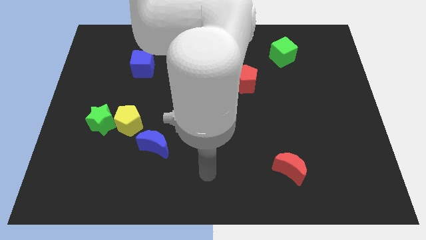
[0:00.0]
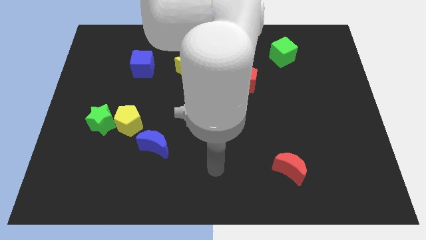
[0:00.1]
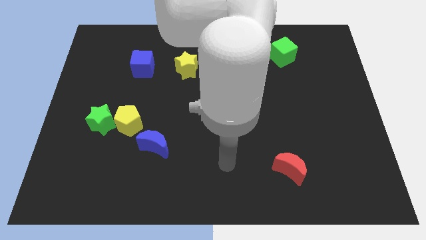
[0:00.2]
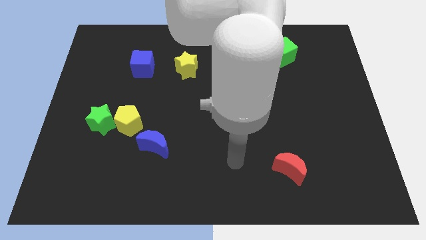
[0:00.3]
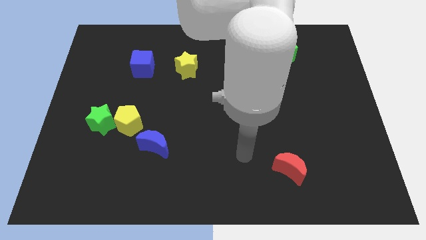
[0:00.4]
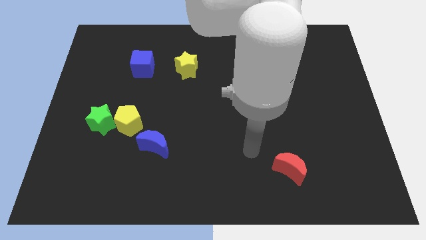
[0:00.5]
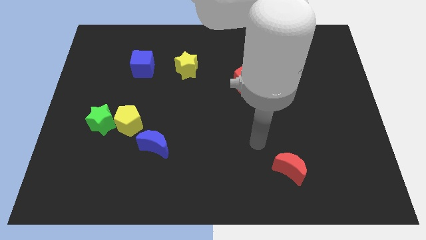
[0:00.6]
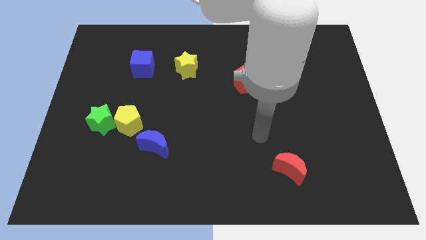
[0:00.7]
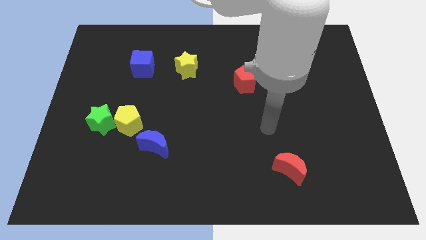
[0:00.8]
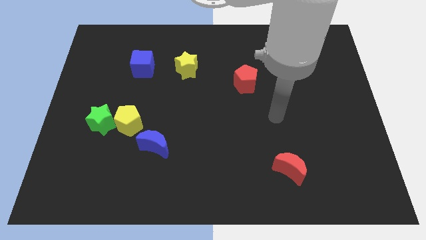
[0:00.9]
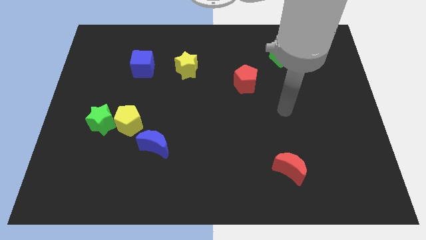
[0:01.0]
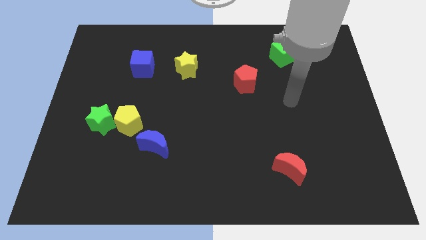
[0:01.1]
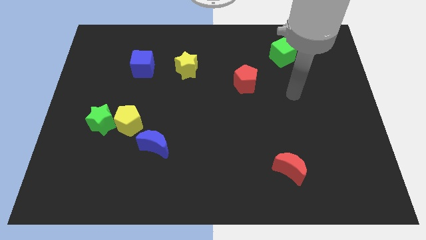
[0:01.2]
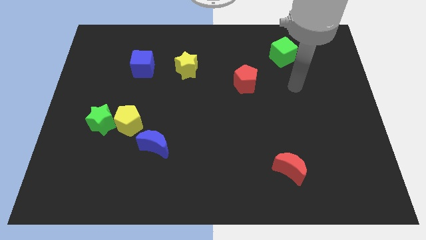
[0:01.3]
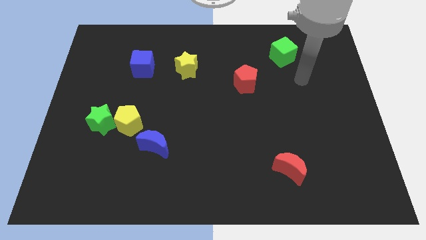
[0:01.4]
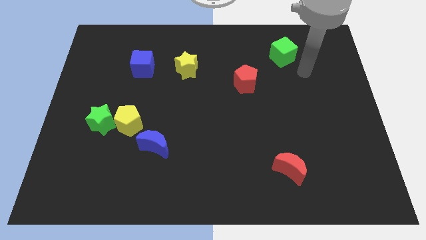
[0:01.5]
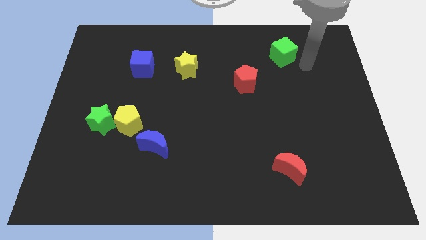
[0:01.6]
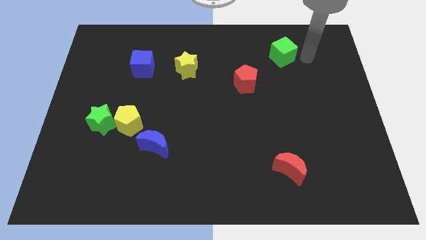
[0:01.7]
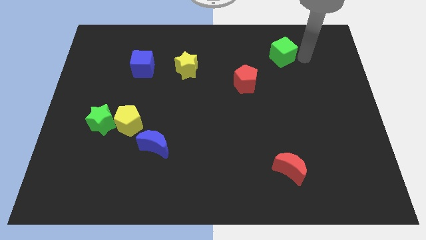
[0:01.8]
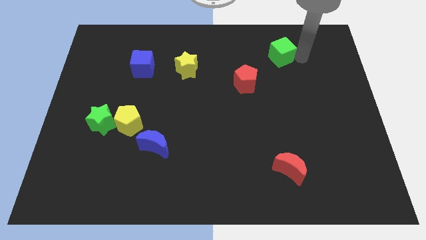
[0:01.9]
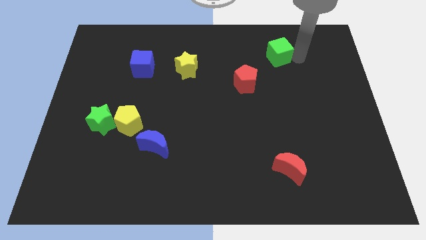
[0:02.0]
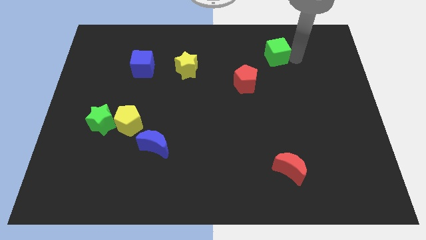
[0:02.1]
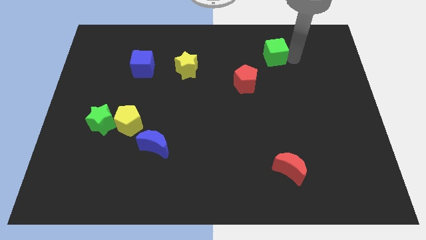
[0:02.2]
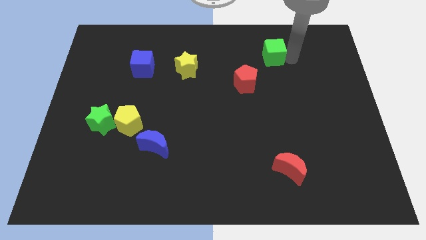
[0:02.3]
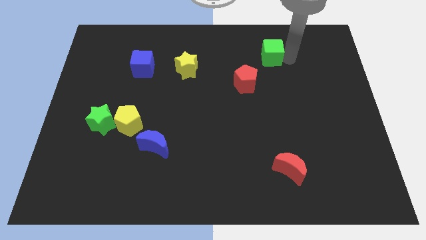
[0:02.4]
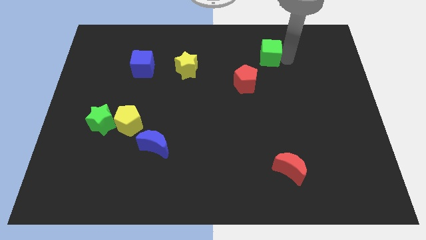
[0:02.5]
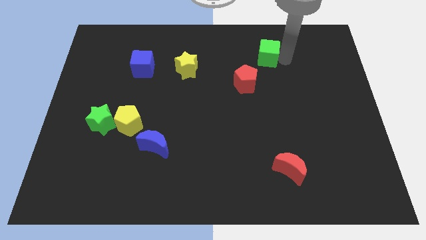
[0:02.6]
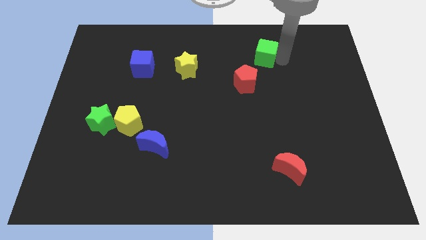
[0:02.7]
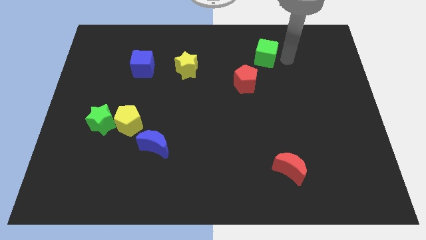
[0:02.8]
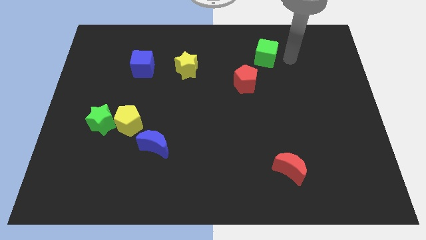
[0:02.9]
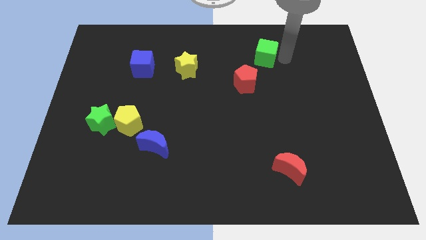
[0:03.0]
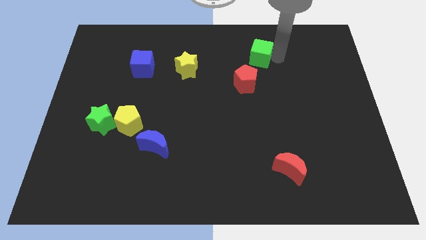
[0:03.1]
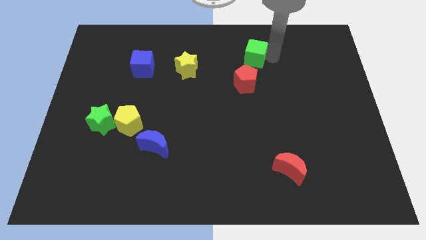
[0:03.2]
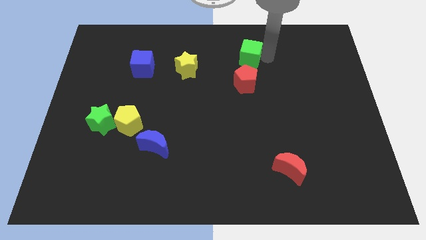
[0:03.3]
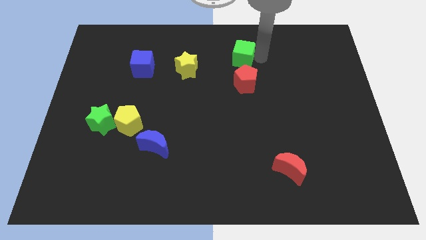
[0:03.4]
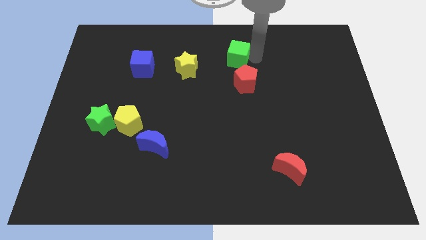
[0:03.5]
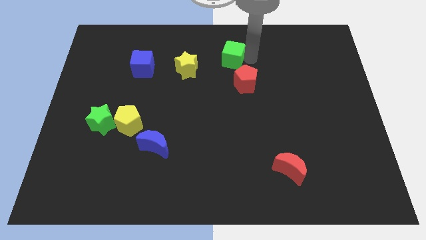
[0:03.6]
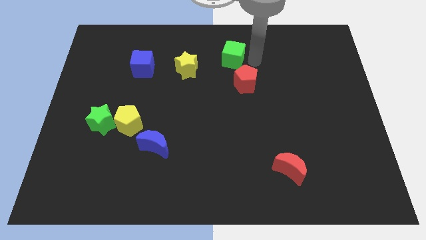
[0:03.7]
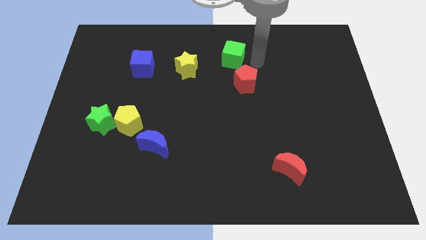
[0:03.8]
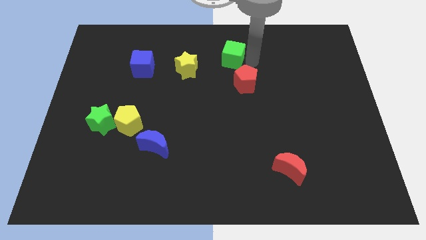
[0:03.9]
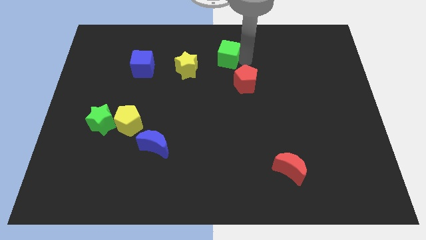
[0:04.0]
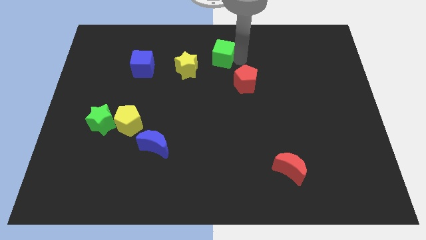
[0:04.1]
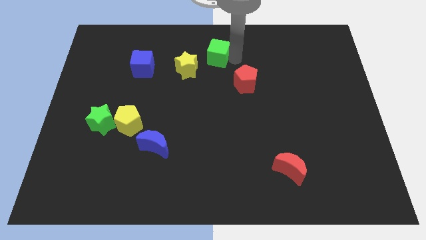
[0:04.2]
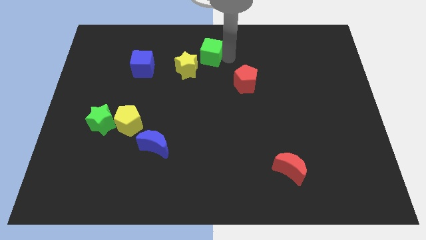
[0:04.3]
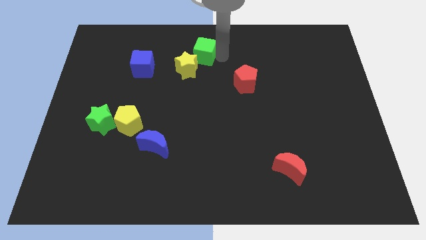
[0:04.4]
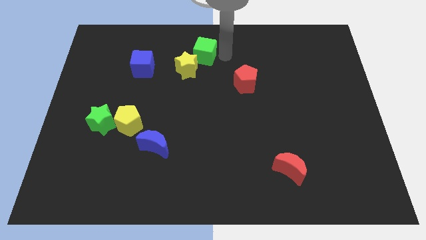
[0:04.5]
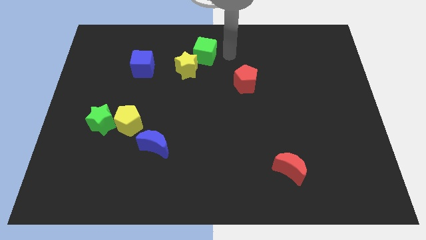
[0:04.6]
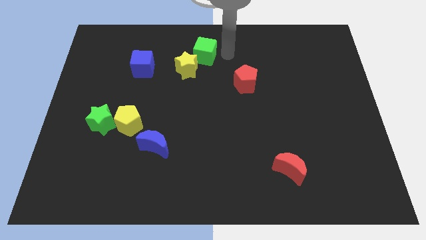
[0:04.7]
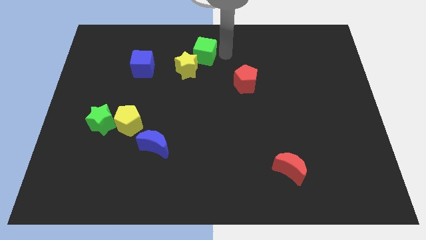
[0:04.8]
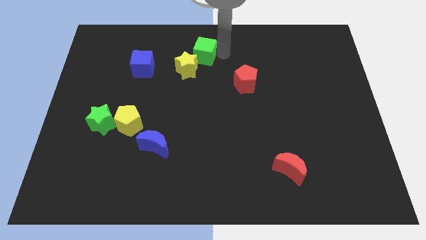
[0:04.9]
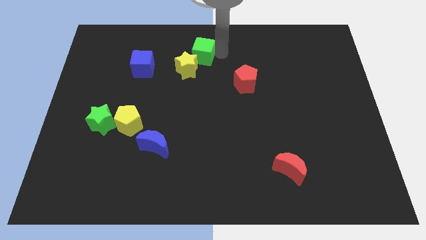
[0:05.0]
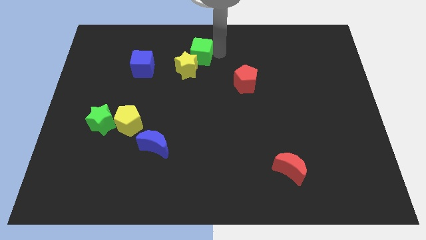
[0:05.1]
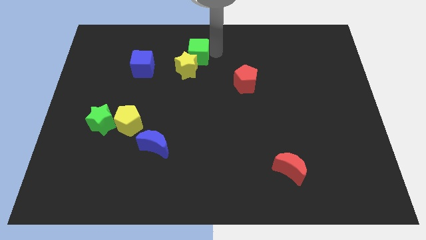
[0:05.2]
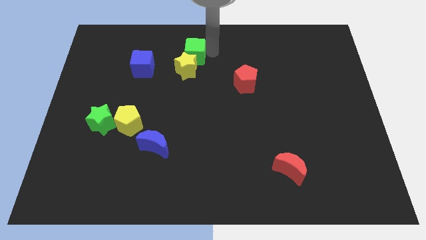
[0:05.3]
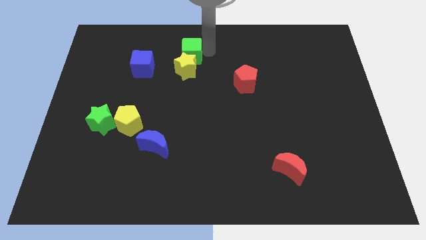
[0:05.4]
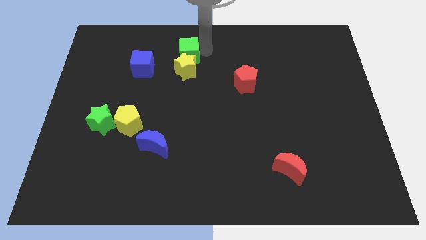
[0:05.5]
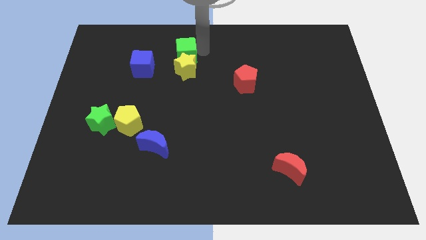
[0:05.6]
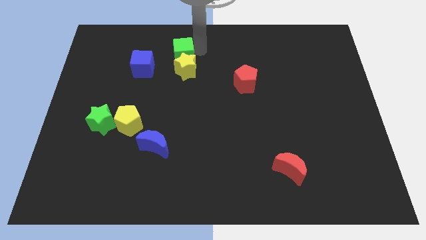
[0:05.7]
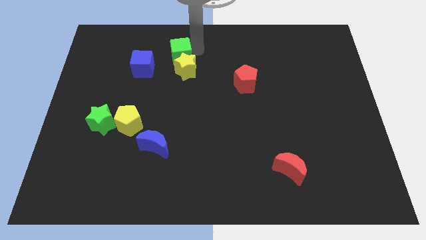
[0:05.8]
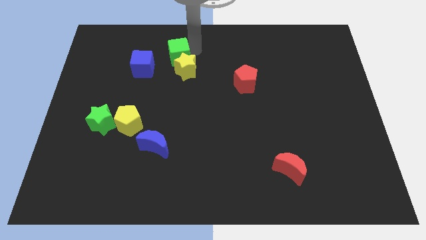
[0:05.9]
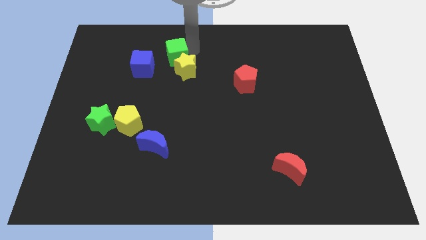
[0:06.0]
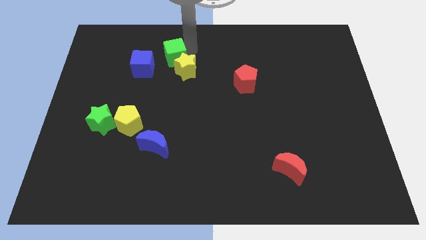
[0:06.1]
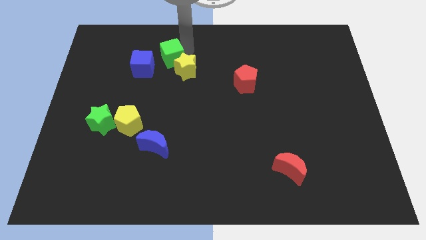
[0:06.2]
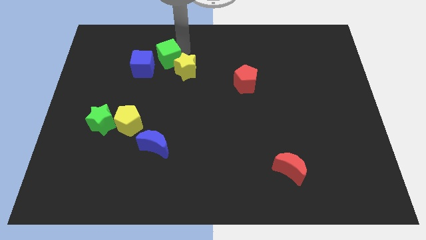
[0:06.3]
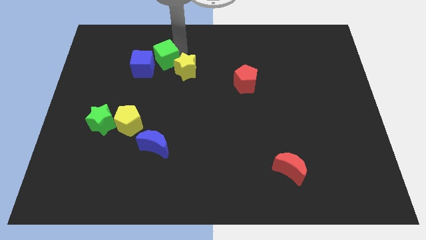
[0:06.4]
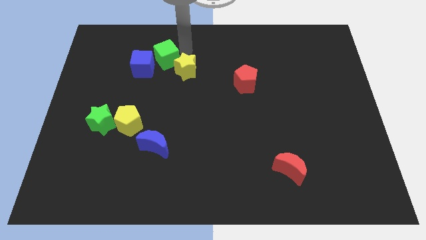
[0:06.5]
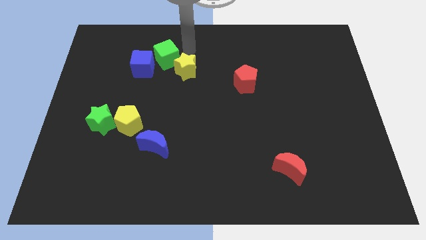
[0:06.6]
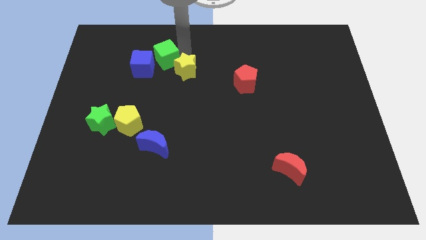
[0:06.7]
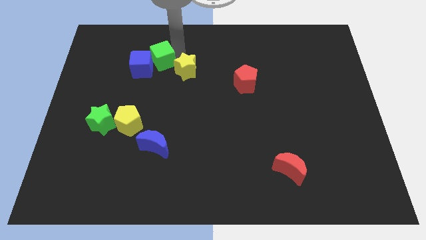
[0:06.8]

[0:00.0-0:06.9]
push the green cube close to the blue cube
